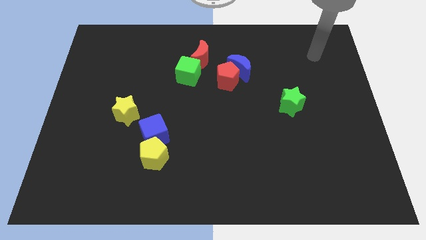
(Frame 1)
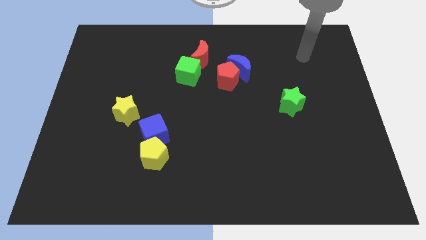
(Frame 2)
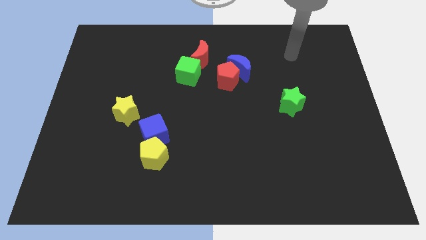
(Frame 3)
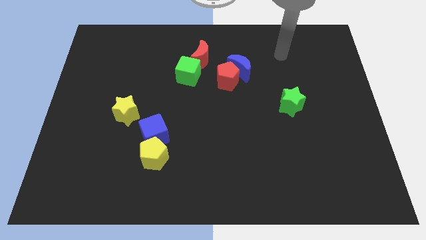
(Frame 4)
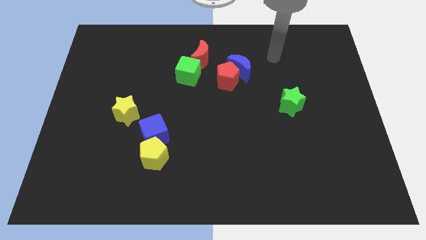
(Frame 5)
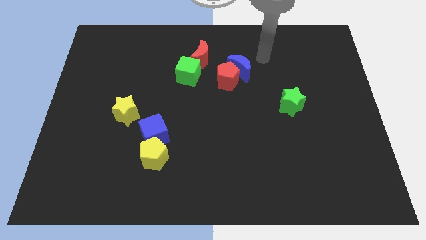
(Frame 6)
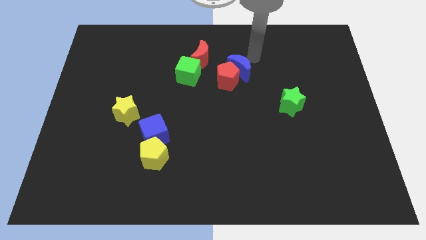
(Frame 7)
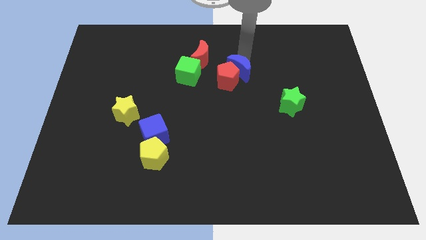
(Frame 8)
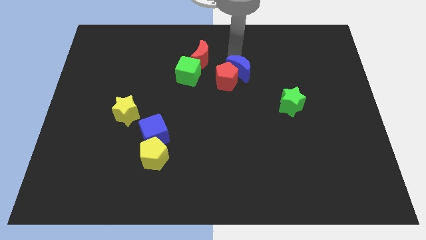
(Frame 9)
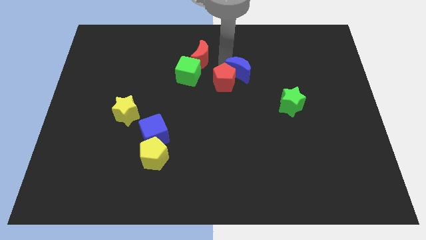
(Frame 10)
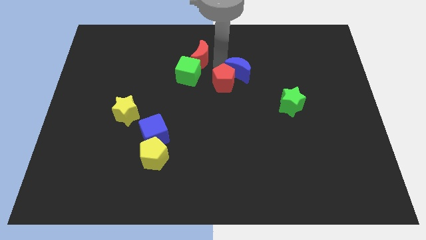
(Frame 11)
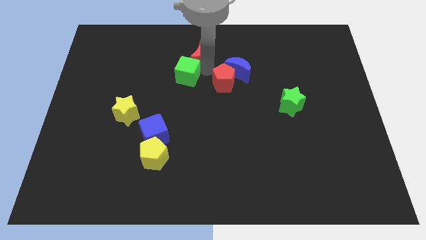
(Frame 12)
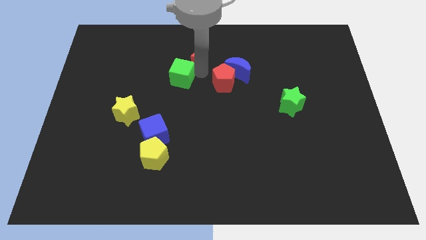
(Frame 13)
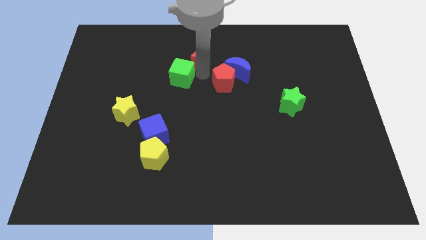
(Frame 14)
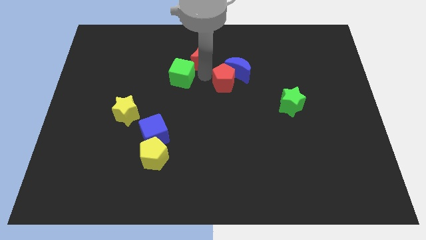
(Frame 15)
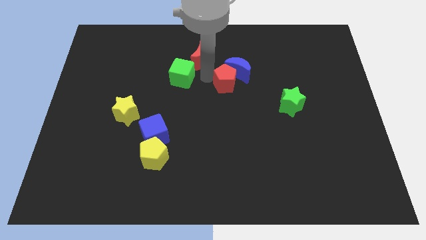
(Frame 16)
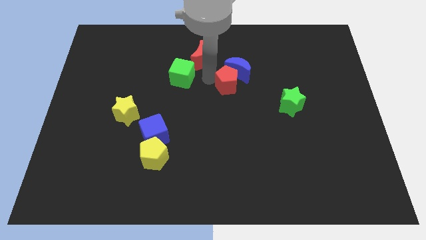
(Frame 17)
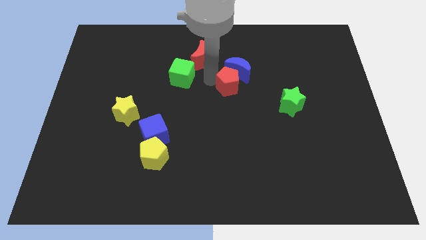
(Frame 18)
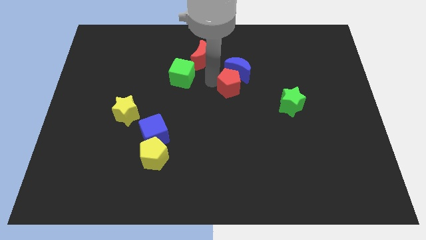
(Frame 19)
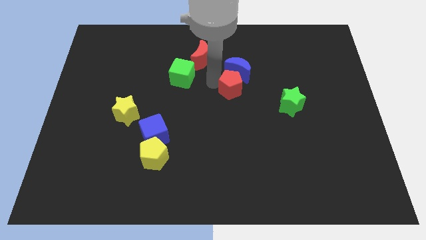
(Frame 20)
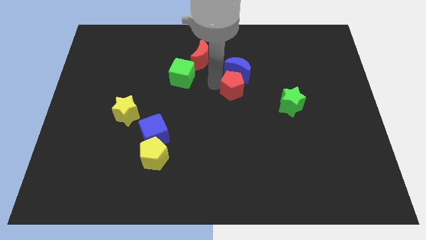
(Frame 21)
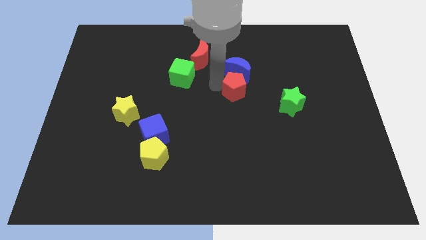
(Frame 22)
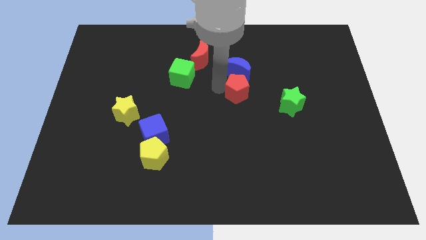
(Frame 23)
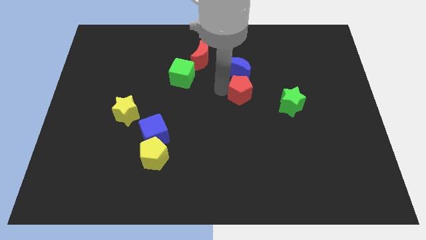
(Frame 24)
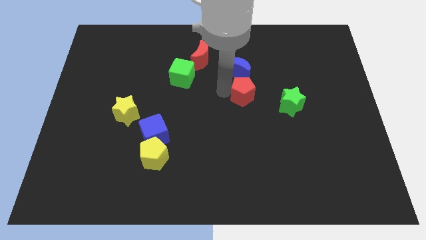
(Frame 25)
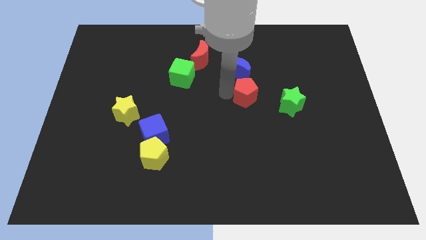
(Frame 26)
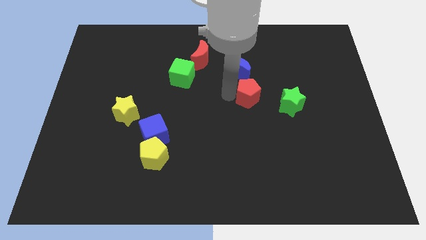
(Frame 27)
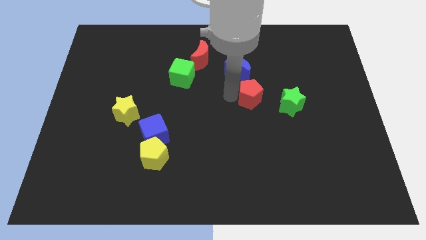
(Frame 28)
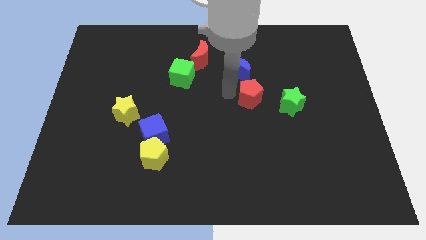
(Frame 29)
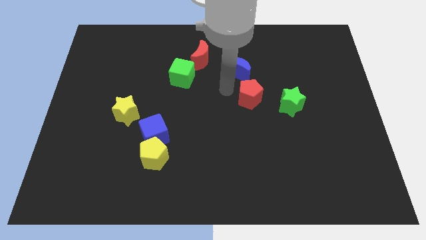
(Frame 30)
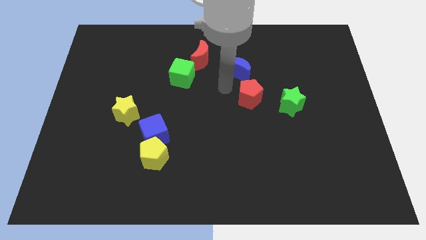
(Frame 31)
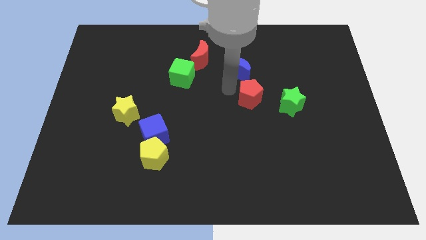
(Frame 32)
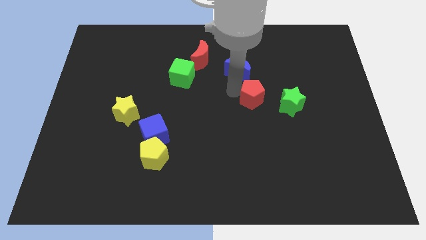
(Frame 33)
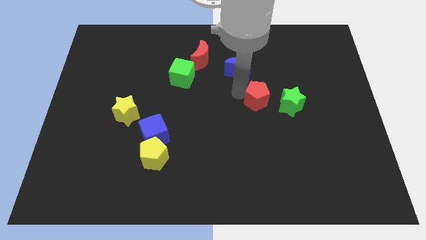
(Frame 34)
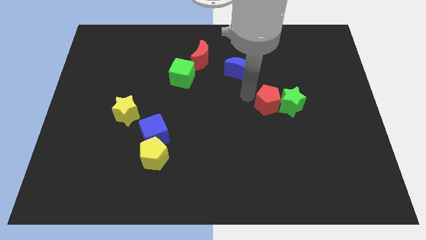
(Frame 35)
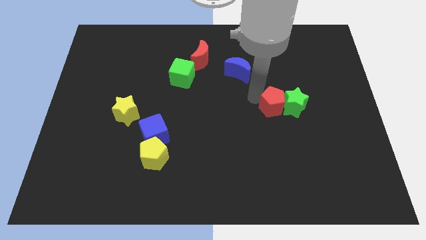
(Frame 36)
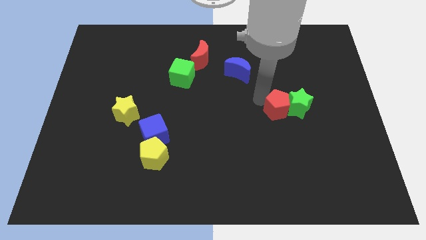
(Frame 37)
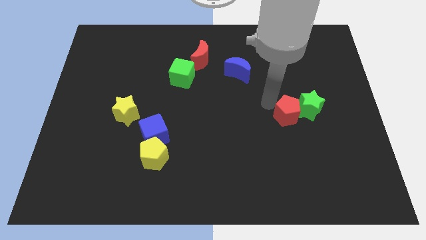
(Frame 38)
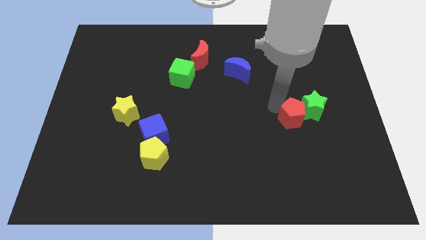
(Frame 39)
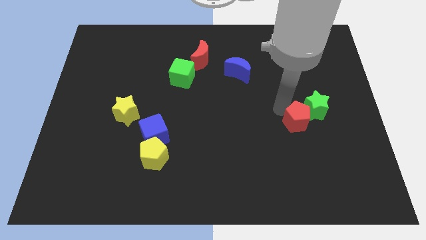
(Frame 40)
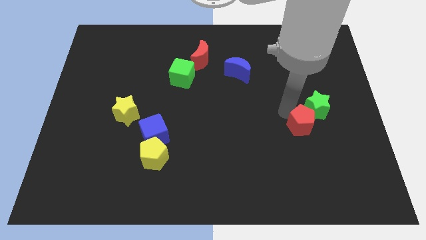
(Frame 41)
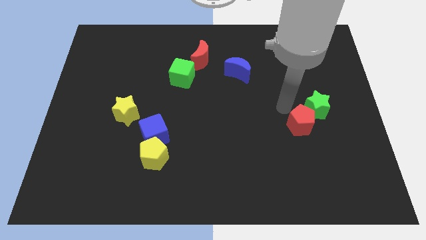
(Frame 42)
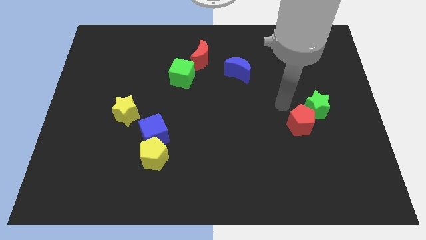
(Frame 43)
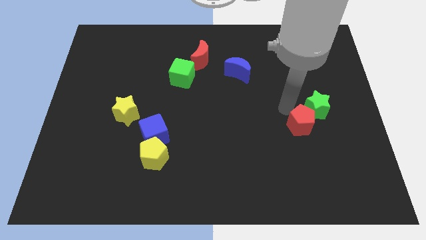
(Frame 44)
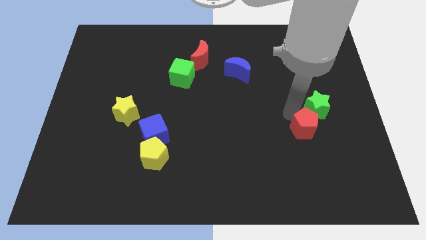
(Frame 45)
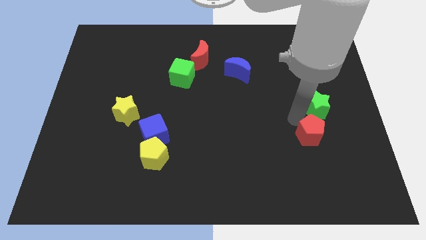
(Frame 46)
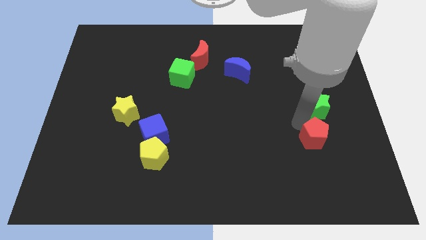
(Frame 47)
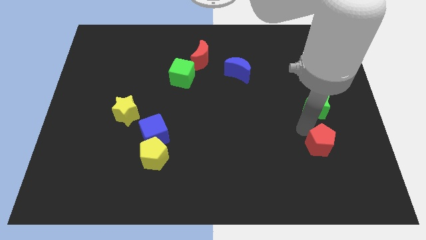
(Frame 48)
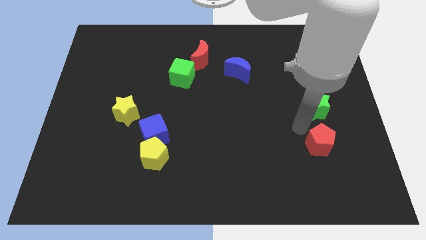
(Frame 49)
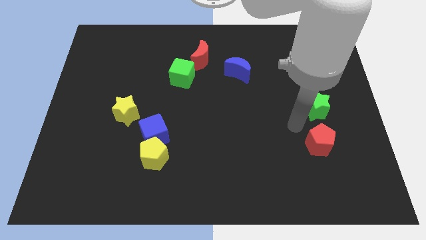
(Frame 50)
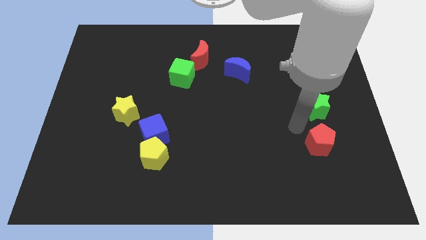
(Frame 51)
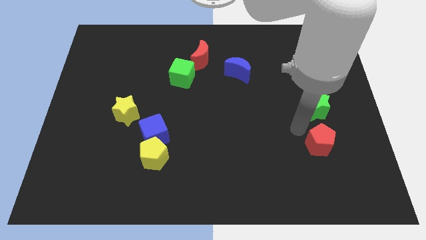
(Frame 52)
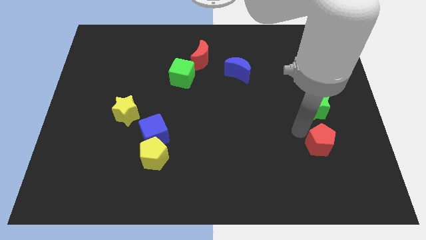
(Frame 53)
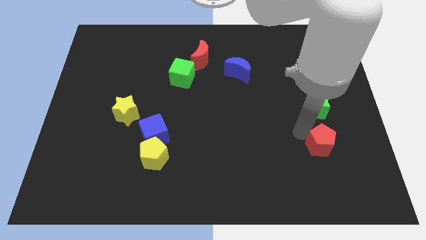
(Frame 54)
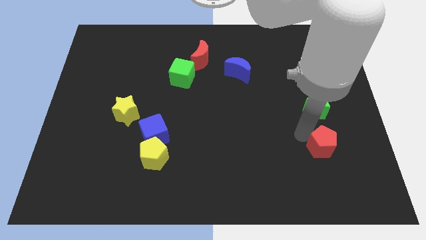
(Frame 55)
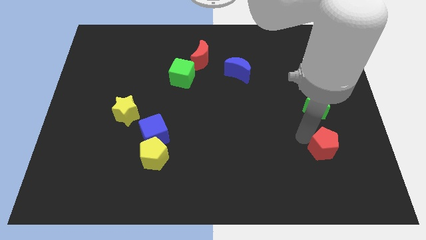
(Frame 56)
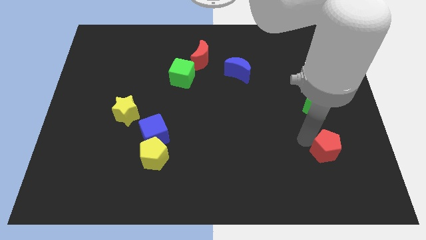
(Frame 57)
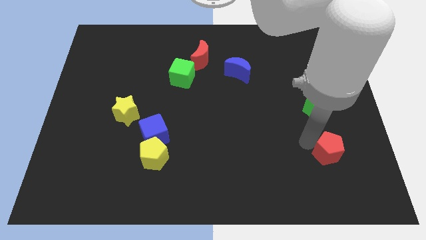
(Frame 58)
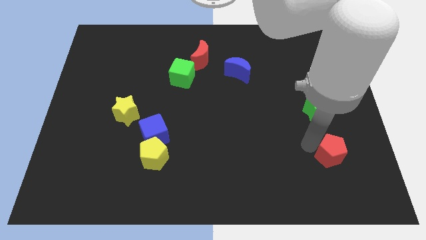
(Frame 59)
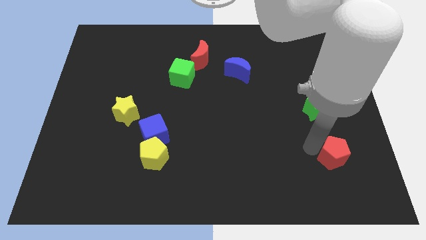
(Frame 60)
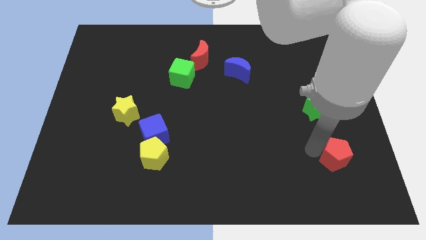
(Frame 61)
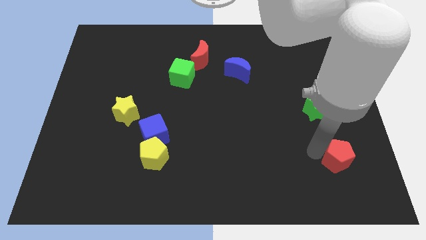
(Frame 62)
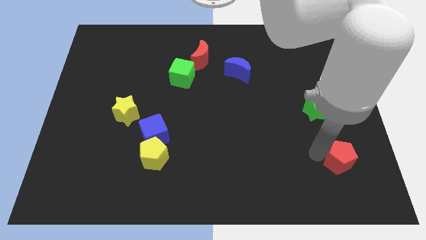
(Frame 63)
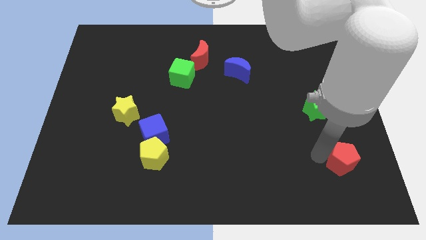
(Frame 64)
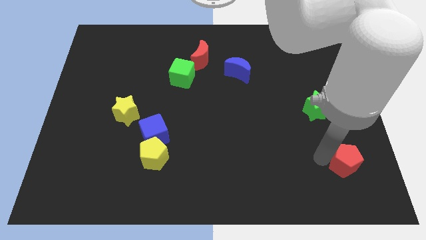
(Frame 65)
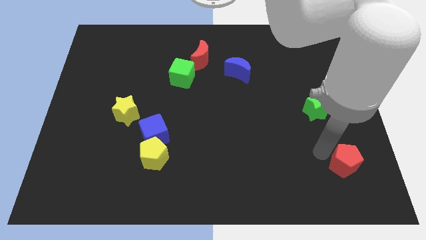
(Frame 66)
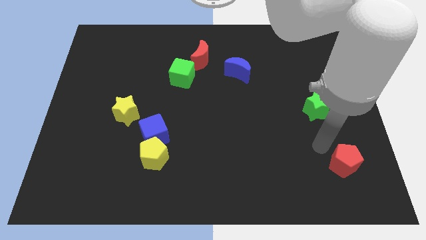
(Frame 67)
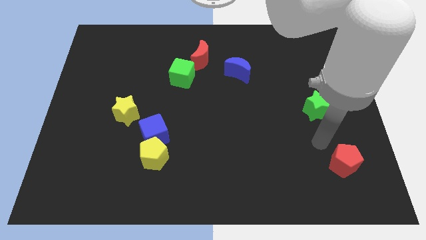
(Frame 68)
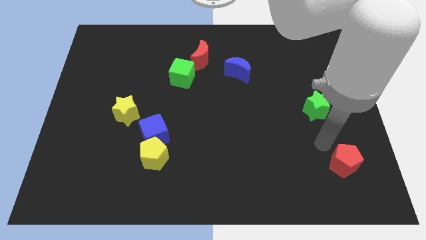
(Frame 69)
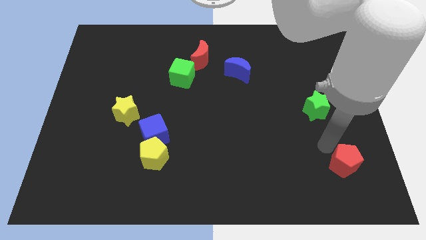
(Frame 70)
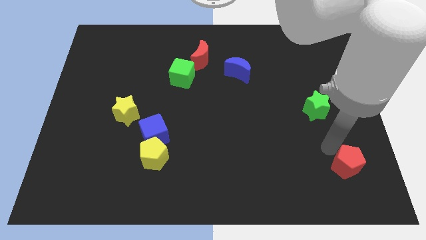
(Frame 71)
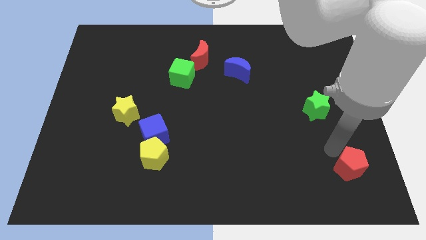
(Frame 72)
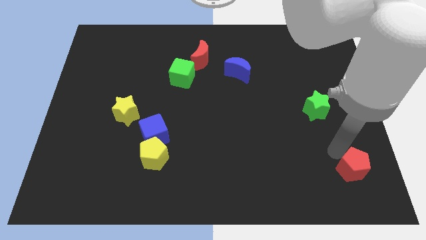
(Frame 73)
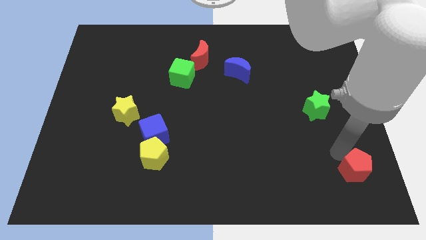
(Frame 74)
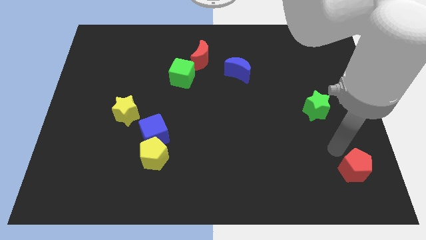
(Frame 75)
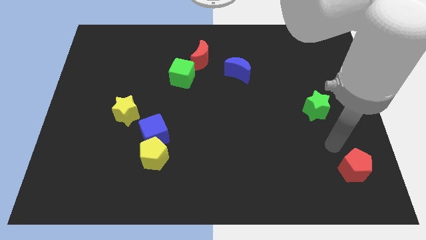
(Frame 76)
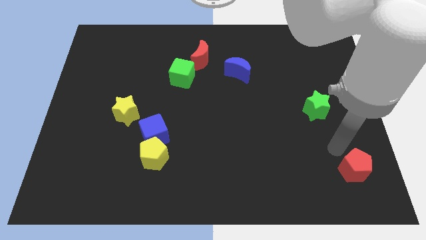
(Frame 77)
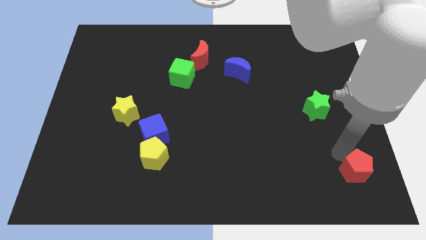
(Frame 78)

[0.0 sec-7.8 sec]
push the red pentagon to the bottom right of the board
